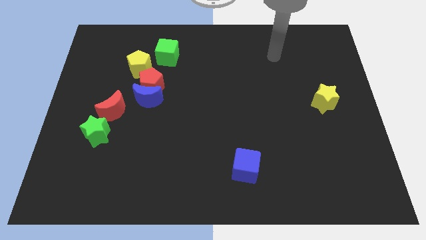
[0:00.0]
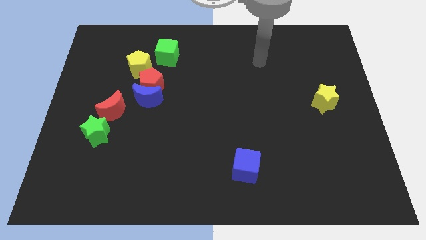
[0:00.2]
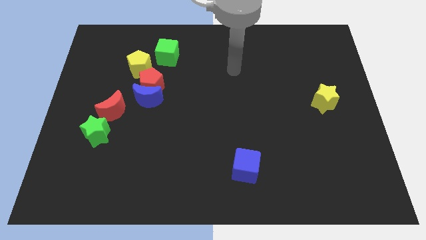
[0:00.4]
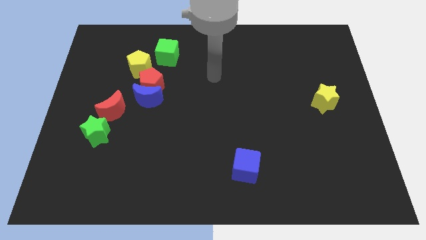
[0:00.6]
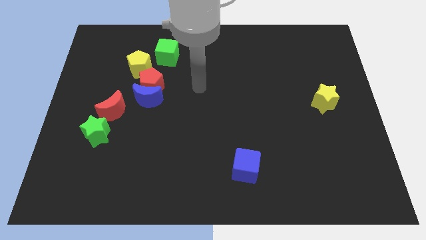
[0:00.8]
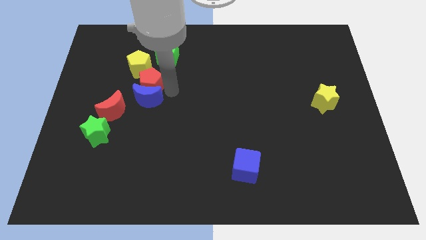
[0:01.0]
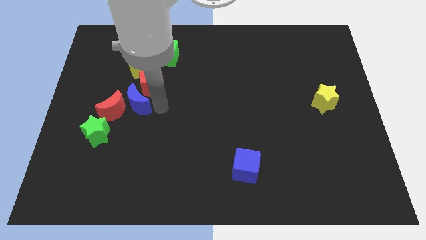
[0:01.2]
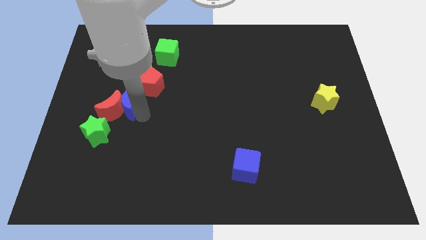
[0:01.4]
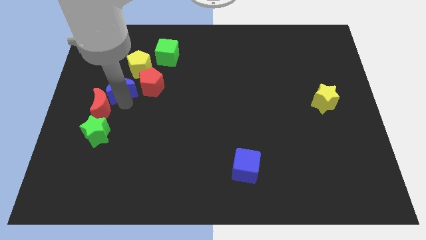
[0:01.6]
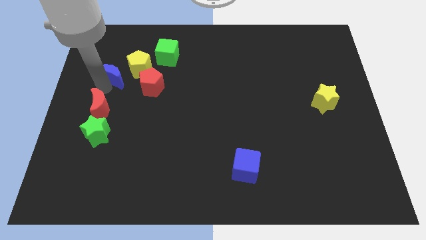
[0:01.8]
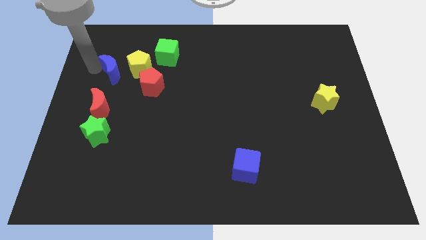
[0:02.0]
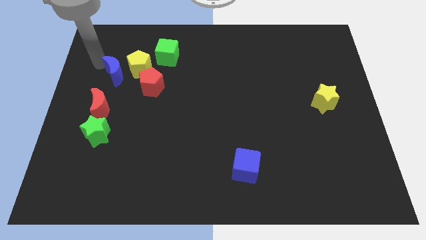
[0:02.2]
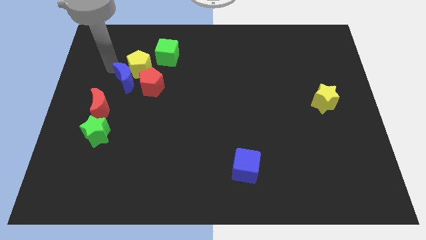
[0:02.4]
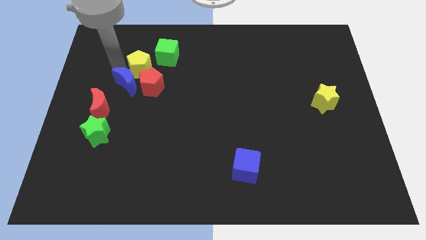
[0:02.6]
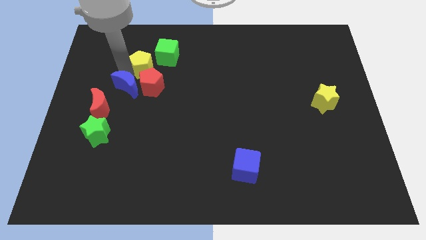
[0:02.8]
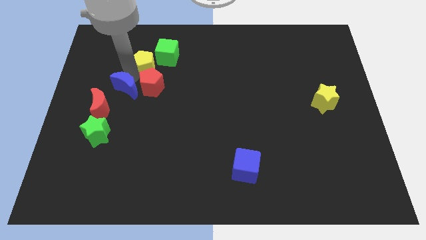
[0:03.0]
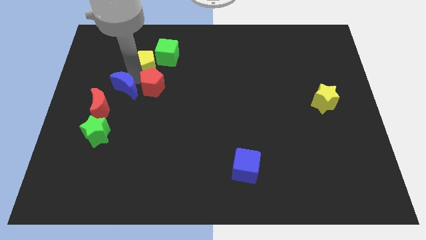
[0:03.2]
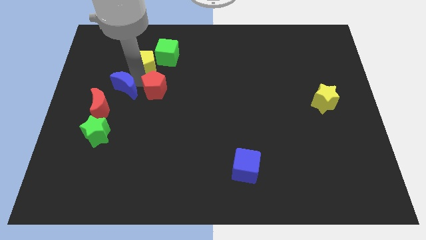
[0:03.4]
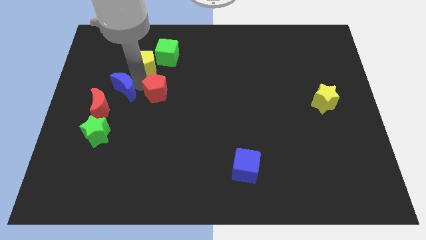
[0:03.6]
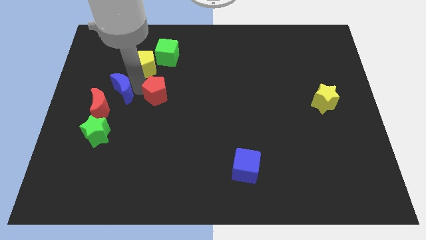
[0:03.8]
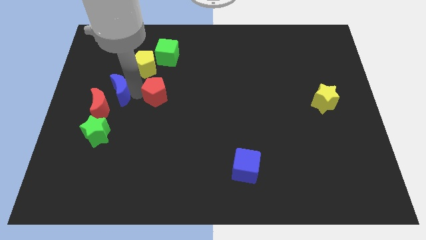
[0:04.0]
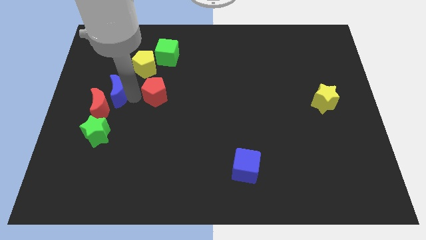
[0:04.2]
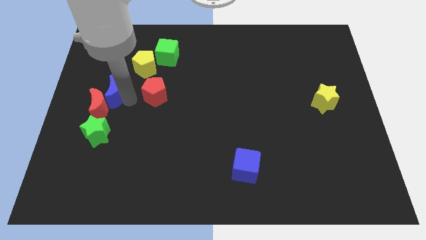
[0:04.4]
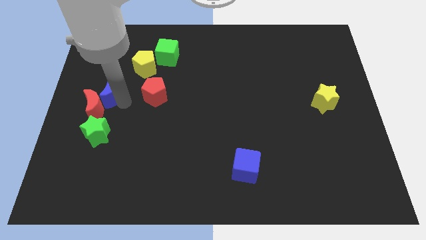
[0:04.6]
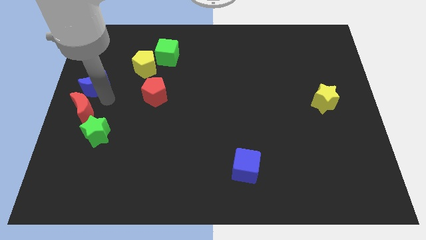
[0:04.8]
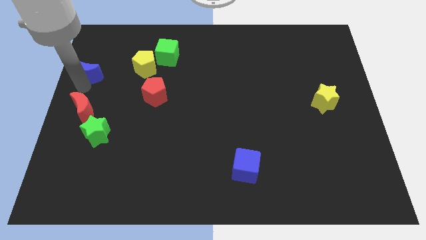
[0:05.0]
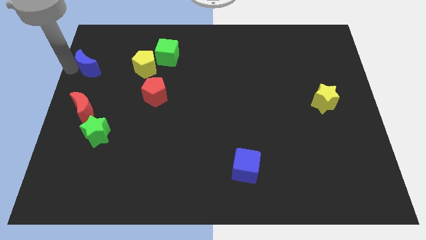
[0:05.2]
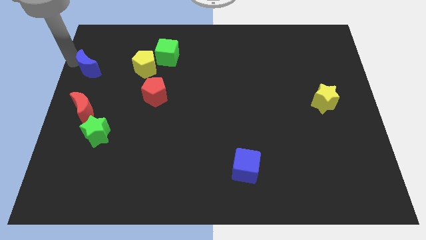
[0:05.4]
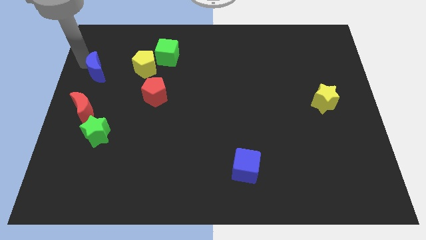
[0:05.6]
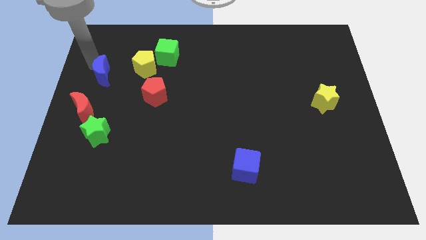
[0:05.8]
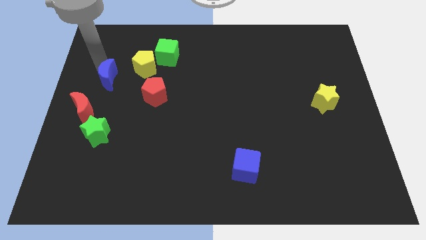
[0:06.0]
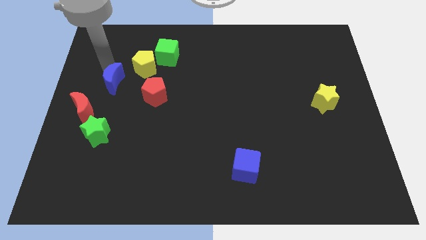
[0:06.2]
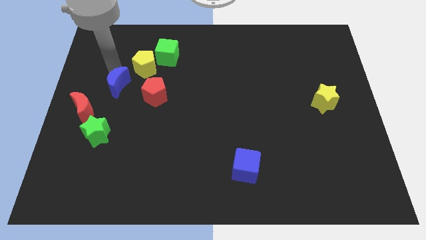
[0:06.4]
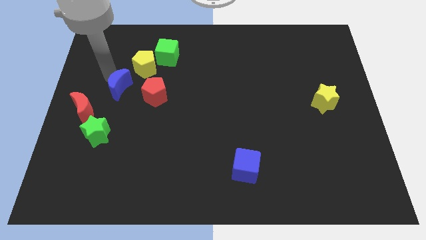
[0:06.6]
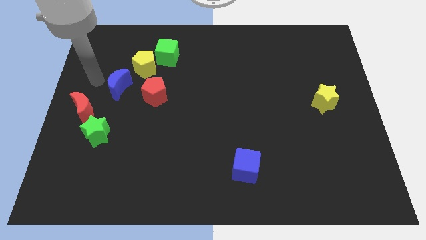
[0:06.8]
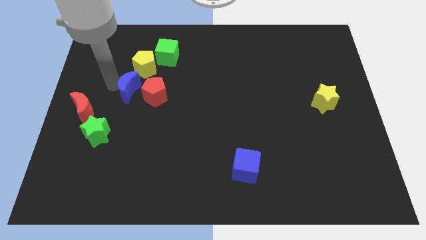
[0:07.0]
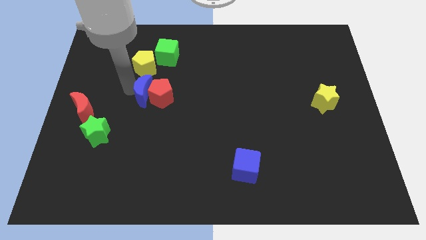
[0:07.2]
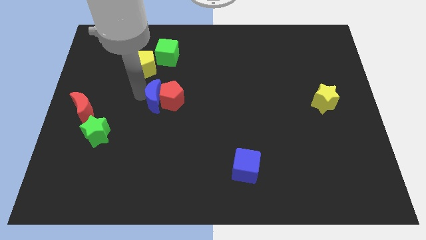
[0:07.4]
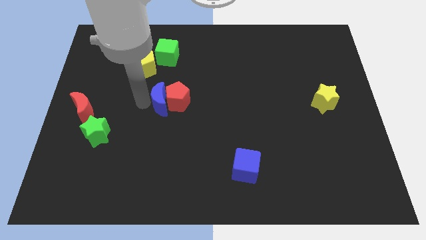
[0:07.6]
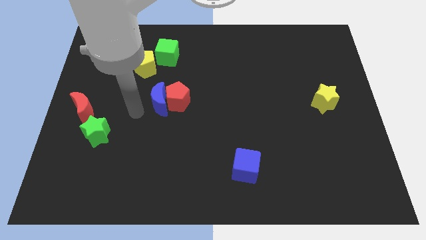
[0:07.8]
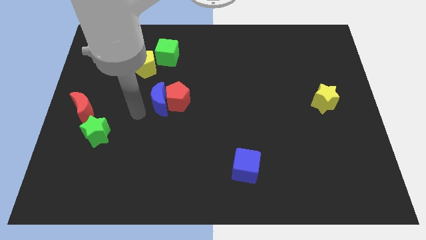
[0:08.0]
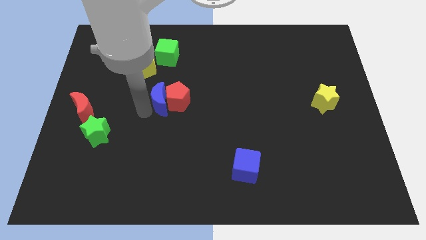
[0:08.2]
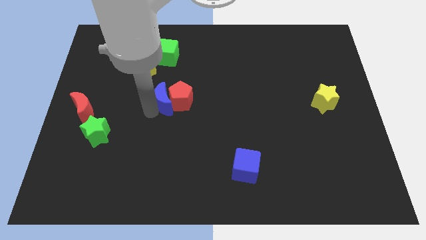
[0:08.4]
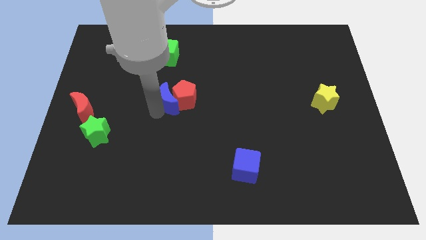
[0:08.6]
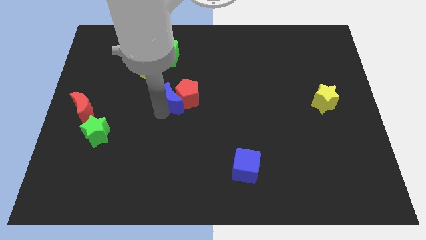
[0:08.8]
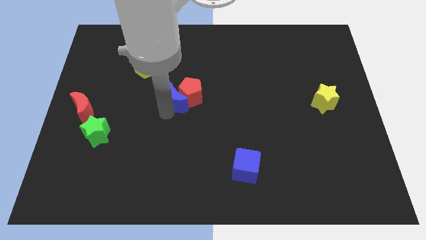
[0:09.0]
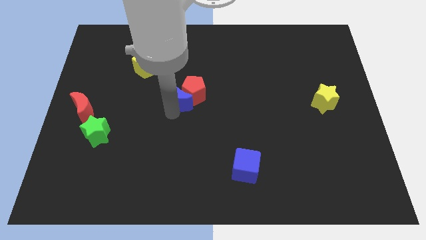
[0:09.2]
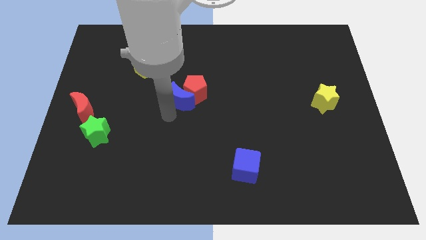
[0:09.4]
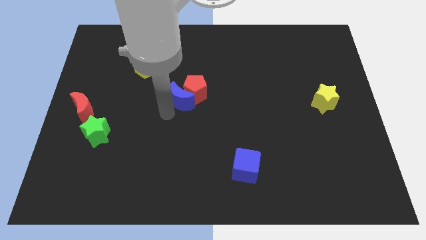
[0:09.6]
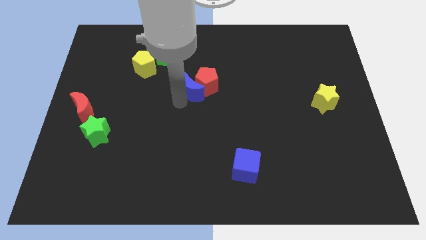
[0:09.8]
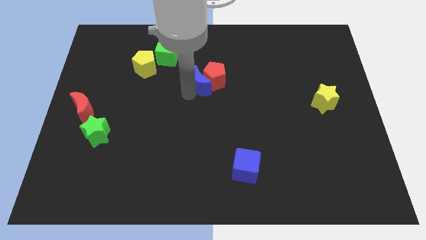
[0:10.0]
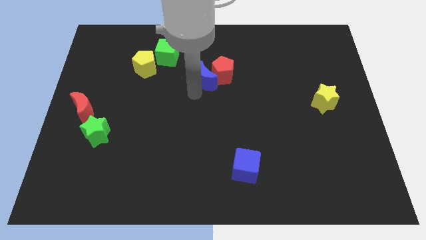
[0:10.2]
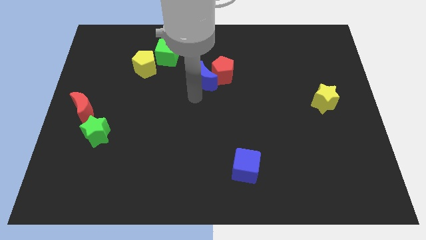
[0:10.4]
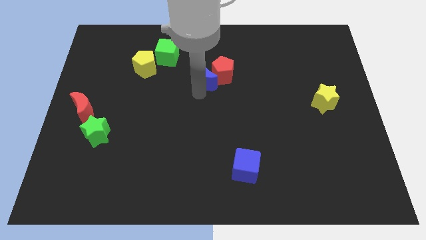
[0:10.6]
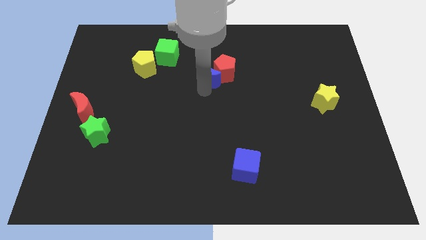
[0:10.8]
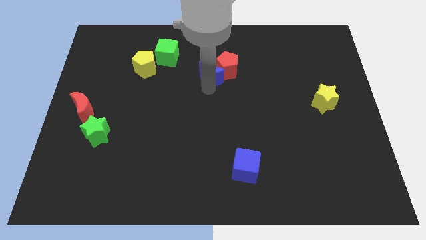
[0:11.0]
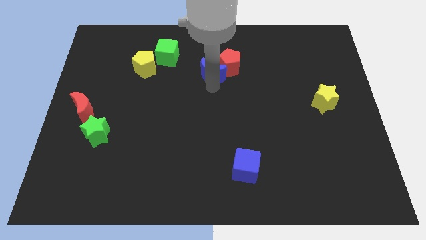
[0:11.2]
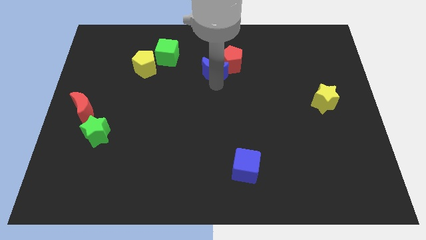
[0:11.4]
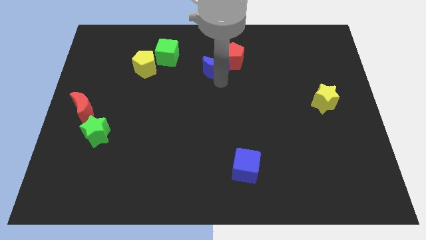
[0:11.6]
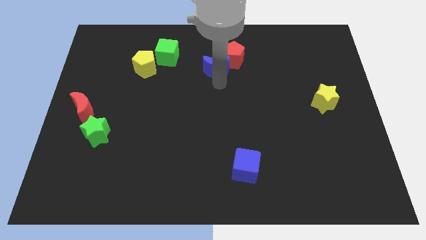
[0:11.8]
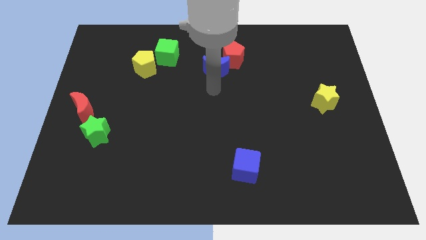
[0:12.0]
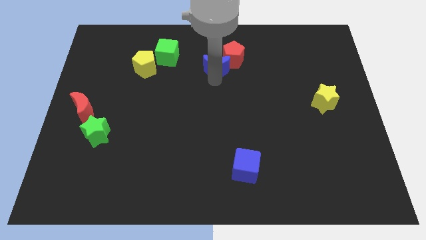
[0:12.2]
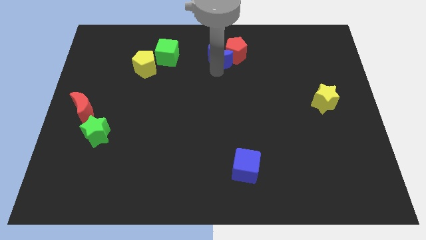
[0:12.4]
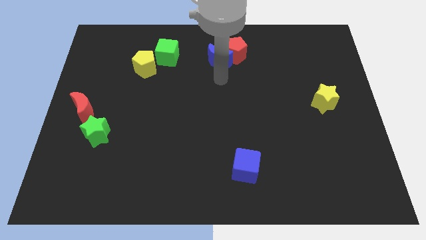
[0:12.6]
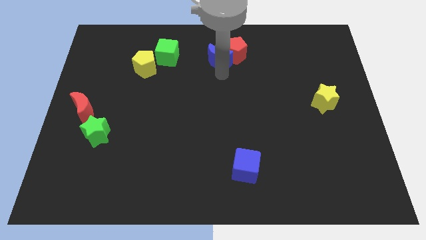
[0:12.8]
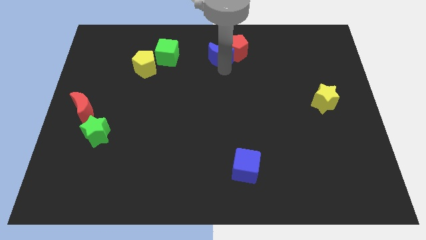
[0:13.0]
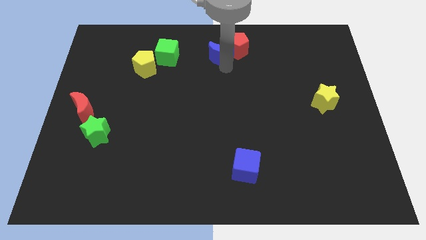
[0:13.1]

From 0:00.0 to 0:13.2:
put the blue moon to the top side
